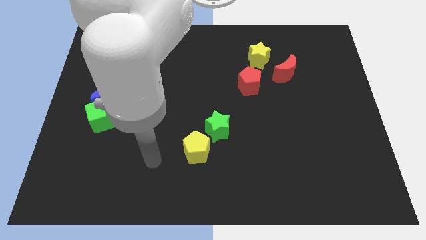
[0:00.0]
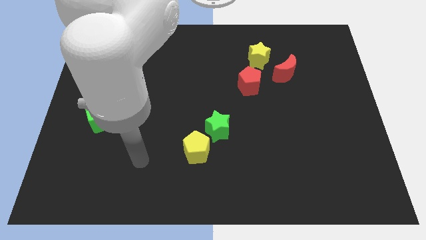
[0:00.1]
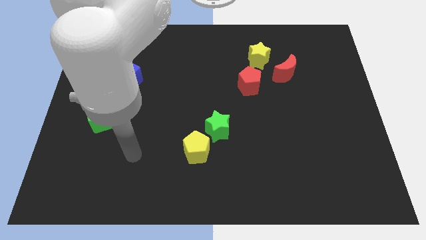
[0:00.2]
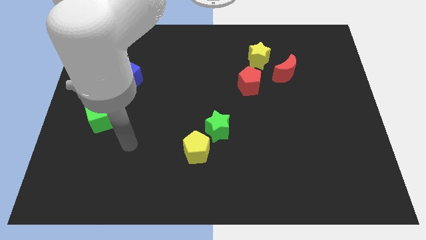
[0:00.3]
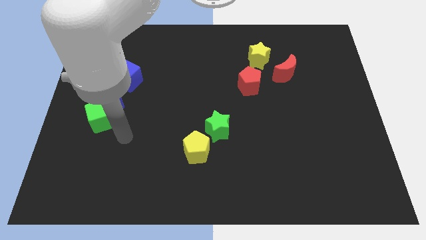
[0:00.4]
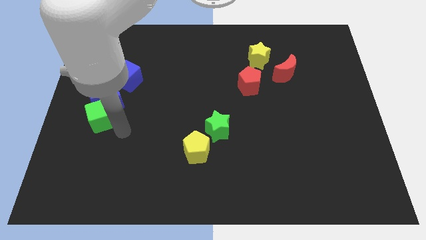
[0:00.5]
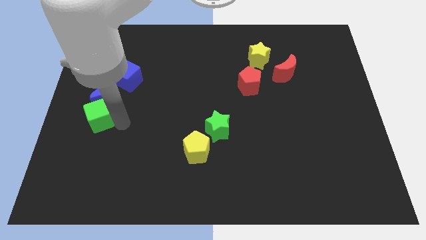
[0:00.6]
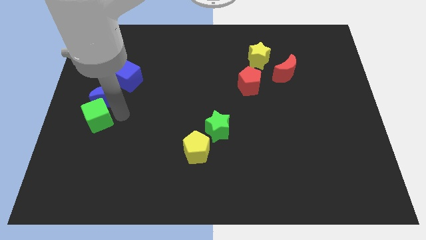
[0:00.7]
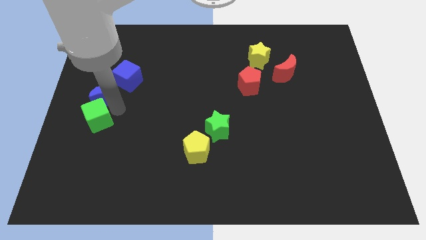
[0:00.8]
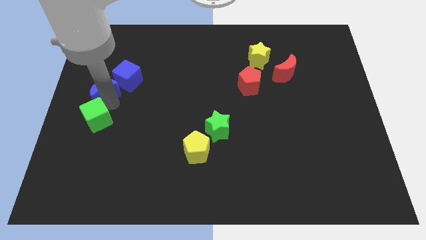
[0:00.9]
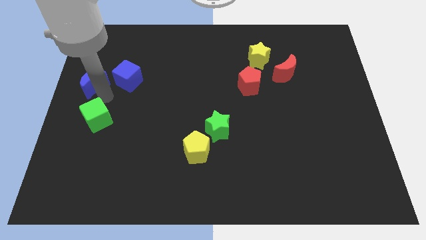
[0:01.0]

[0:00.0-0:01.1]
pull the green cube apart from the blue moon

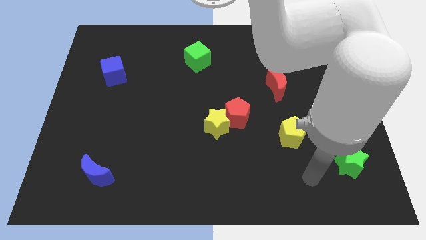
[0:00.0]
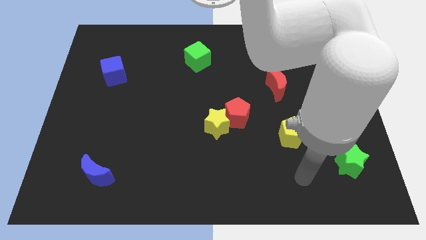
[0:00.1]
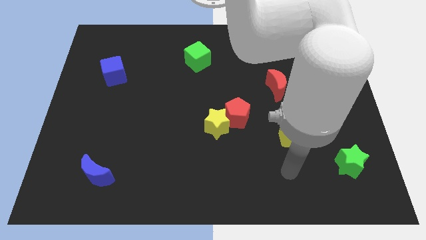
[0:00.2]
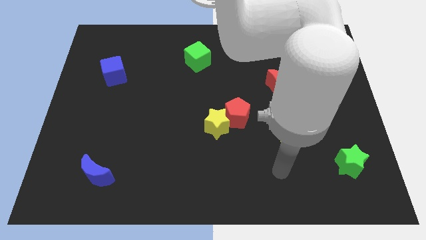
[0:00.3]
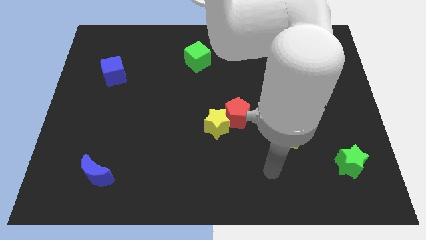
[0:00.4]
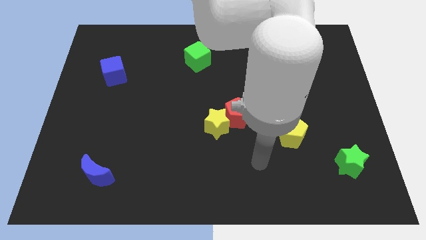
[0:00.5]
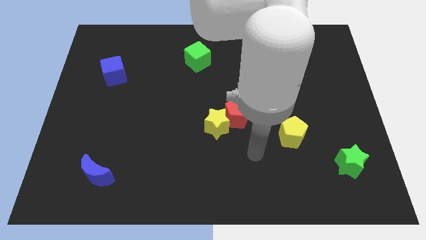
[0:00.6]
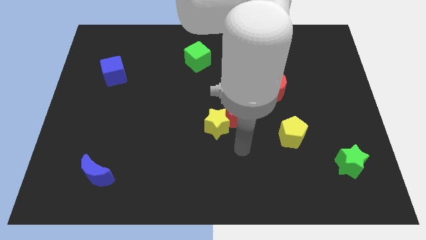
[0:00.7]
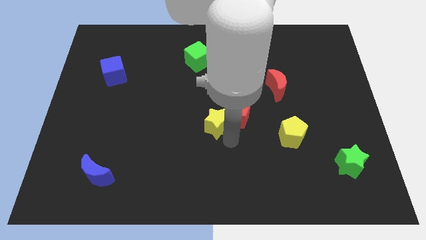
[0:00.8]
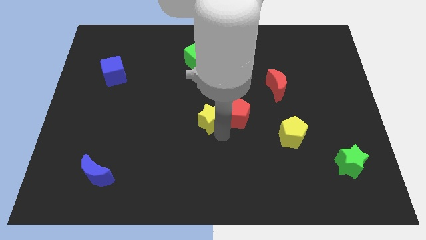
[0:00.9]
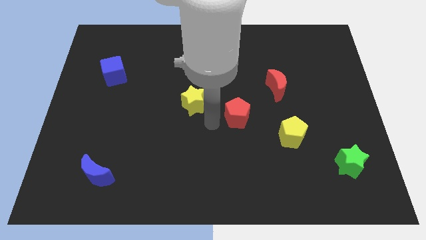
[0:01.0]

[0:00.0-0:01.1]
separate the red pentagon from the yellow star

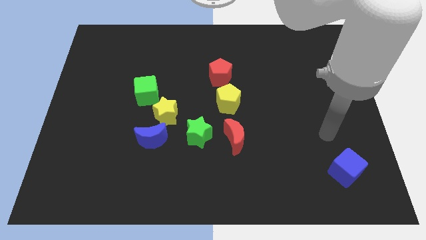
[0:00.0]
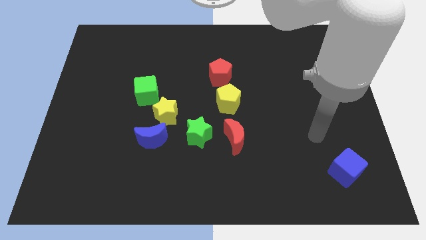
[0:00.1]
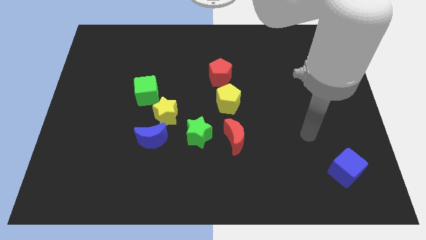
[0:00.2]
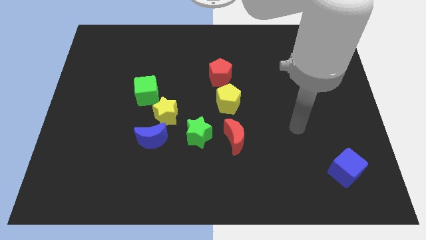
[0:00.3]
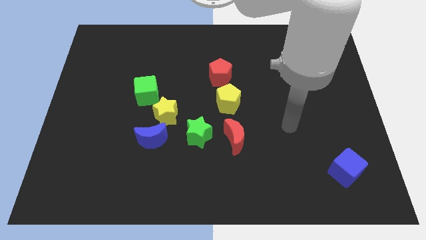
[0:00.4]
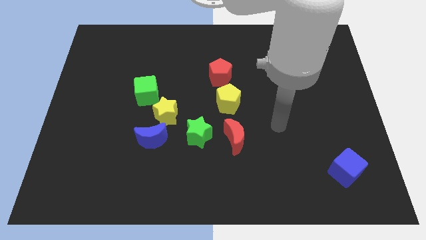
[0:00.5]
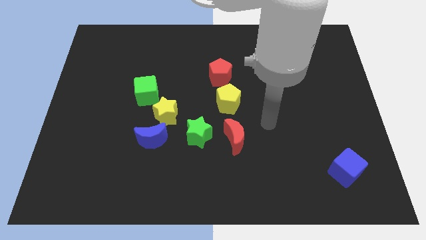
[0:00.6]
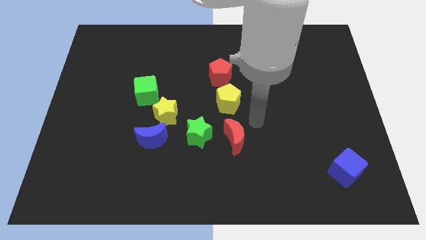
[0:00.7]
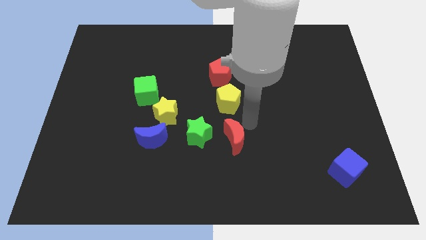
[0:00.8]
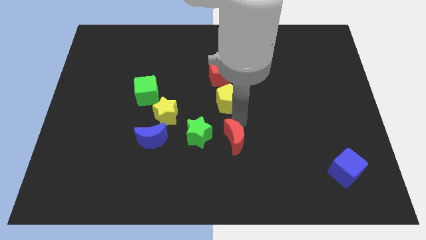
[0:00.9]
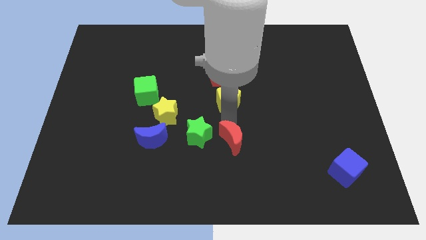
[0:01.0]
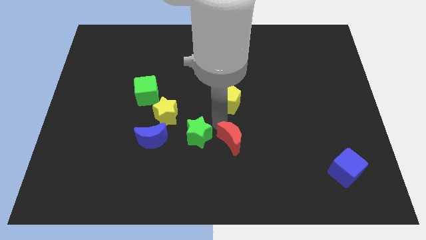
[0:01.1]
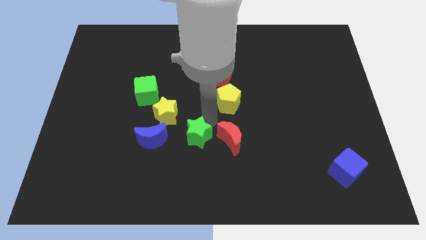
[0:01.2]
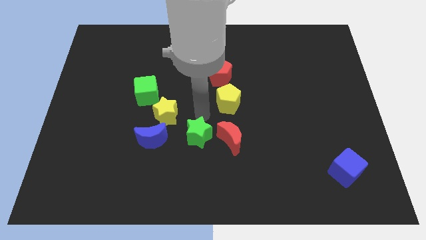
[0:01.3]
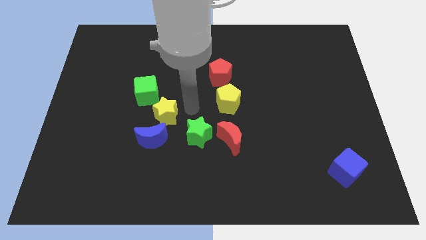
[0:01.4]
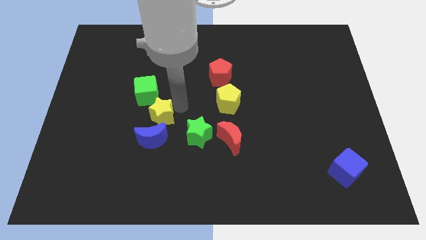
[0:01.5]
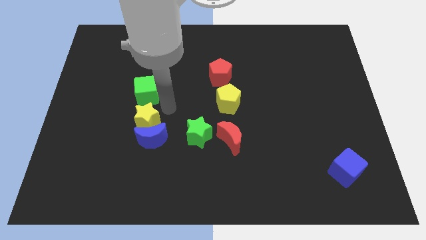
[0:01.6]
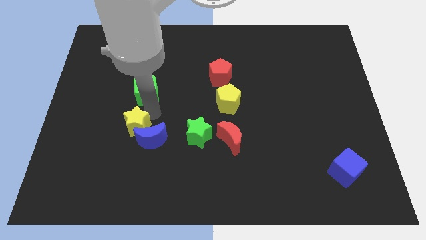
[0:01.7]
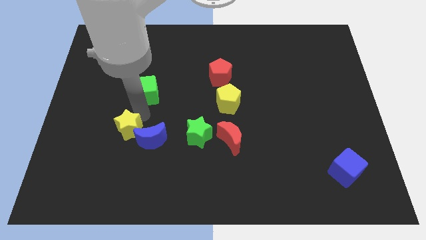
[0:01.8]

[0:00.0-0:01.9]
move the green cube away from the yellow star

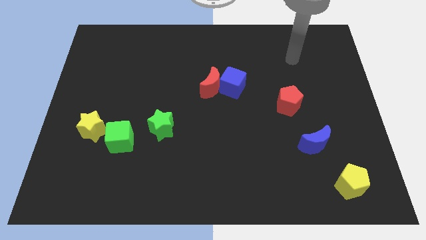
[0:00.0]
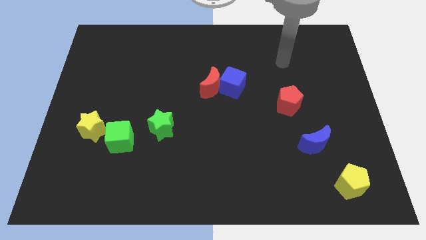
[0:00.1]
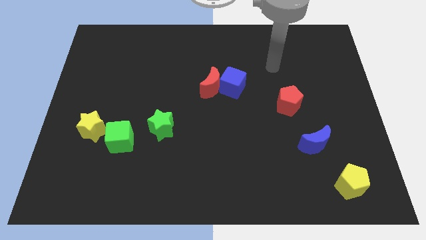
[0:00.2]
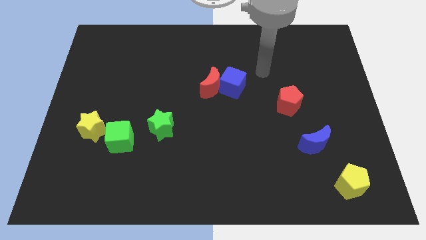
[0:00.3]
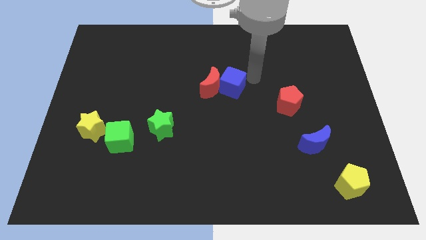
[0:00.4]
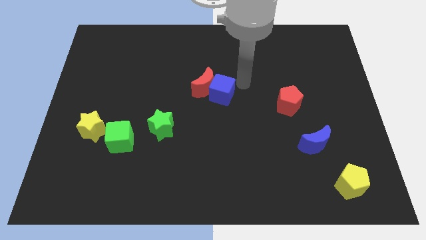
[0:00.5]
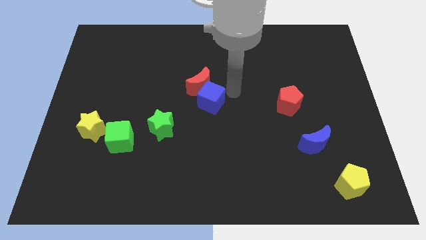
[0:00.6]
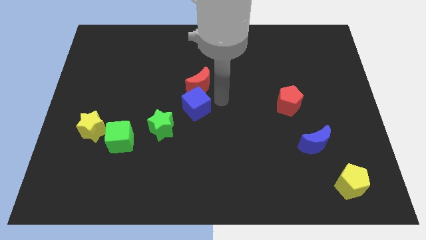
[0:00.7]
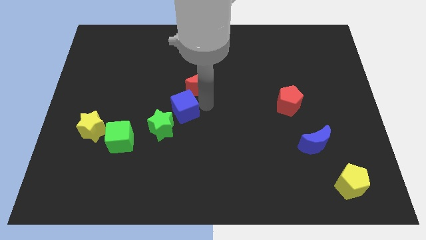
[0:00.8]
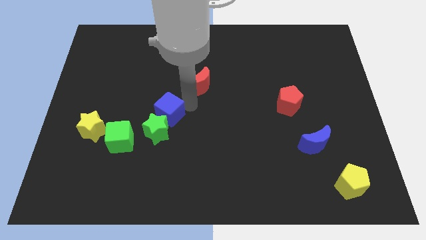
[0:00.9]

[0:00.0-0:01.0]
pull the red moon apart from the blue cube

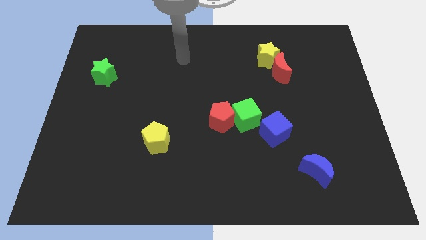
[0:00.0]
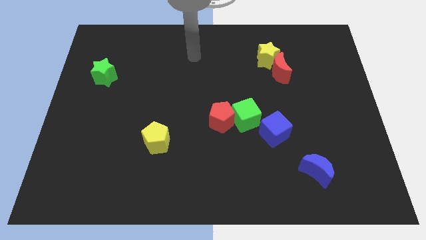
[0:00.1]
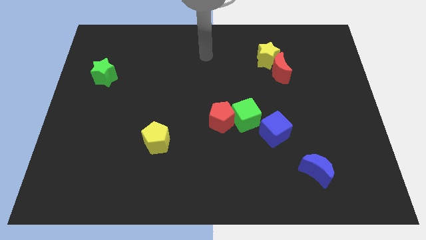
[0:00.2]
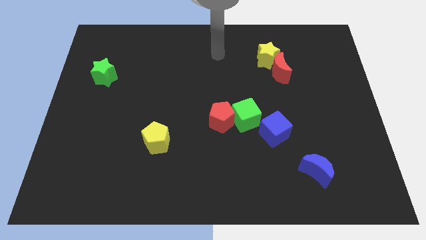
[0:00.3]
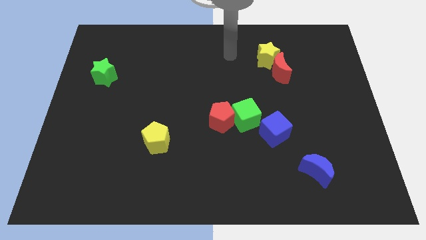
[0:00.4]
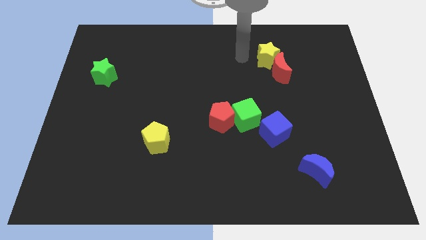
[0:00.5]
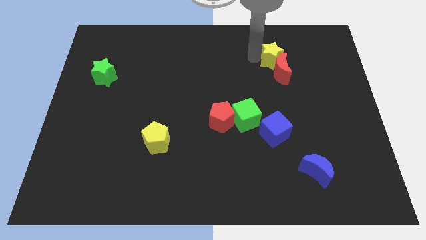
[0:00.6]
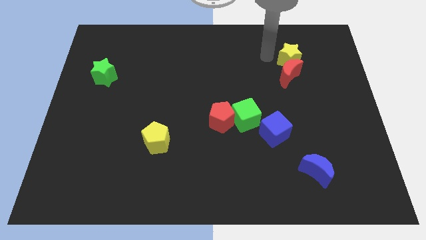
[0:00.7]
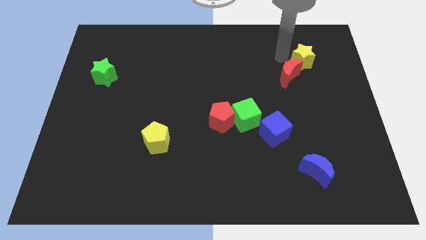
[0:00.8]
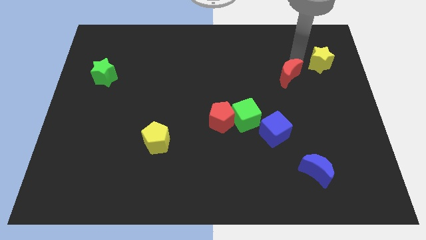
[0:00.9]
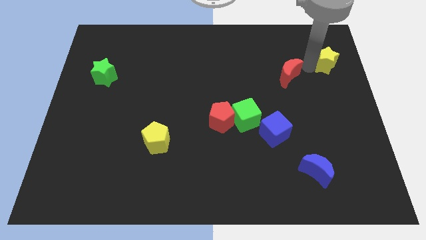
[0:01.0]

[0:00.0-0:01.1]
separate the red moon from the yellow star

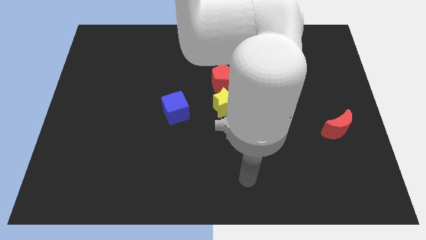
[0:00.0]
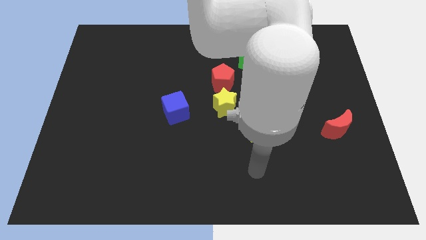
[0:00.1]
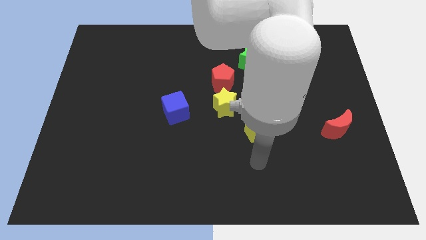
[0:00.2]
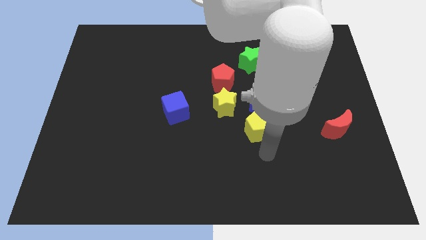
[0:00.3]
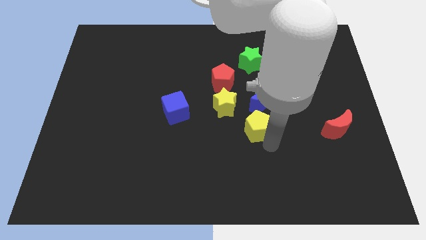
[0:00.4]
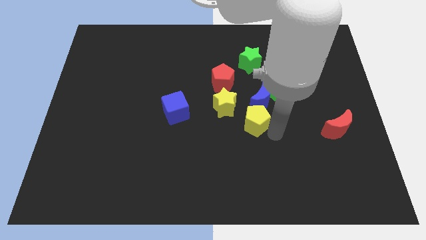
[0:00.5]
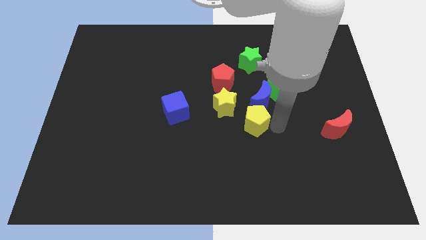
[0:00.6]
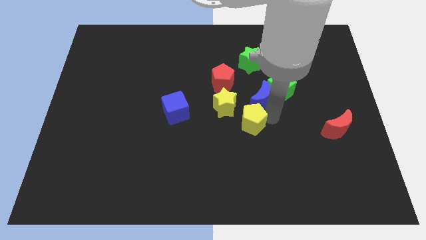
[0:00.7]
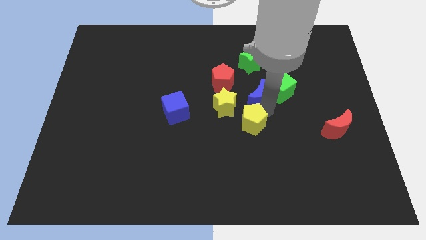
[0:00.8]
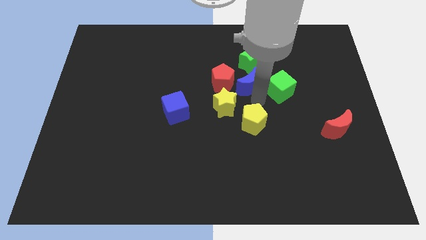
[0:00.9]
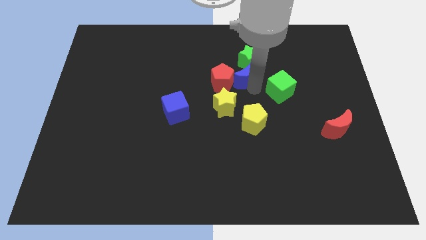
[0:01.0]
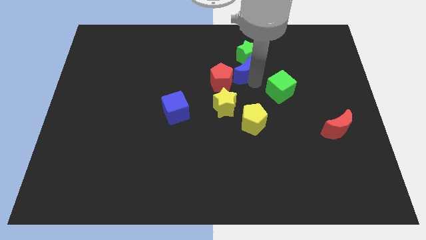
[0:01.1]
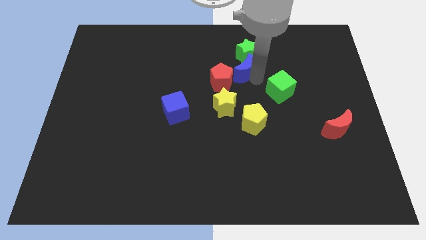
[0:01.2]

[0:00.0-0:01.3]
move the green cube away from the blue moon

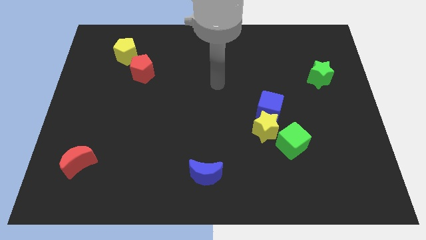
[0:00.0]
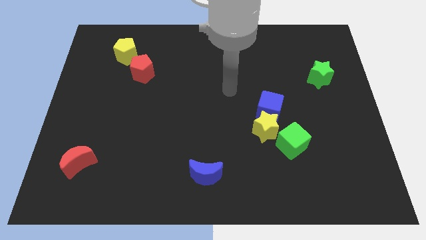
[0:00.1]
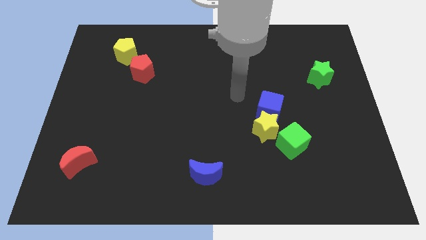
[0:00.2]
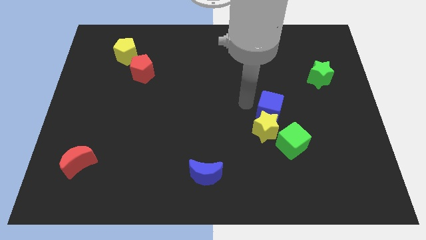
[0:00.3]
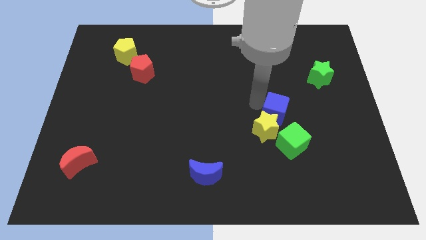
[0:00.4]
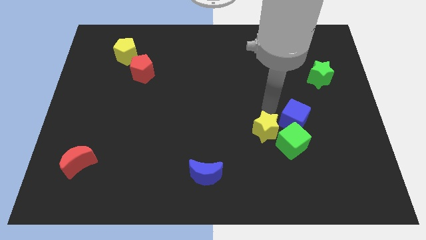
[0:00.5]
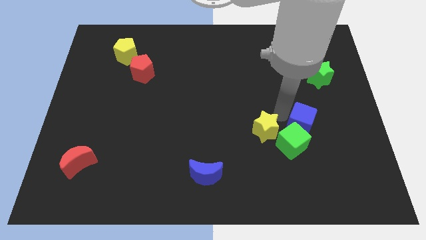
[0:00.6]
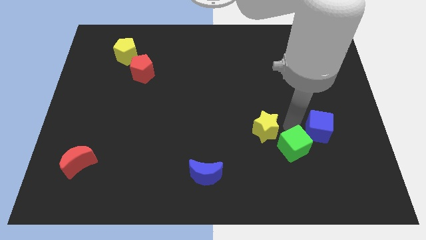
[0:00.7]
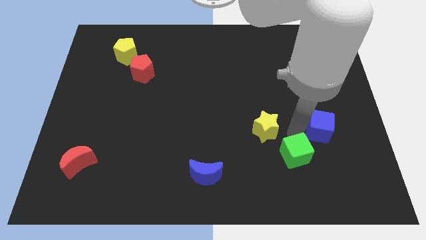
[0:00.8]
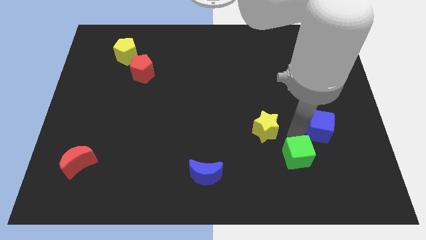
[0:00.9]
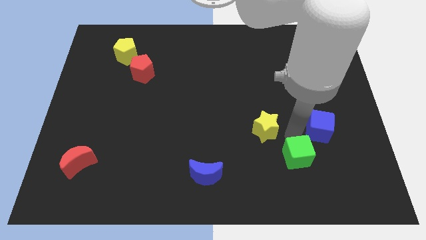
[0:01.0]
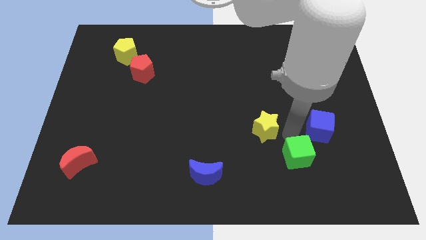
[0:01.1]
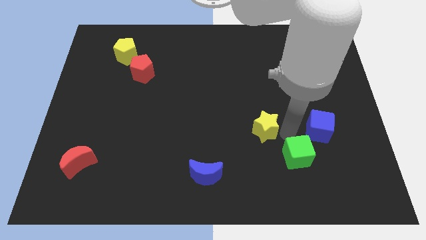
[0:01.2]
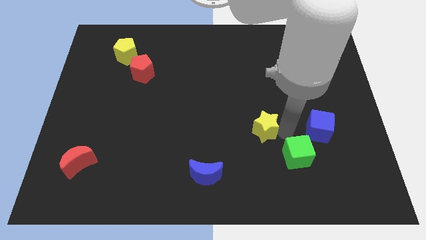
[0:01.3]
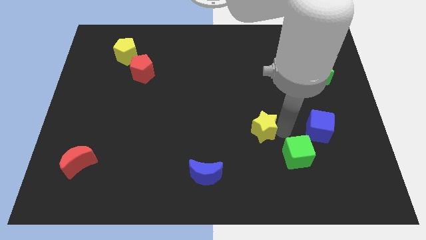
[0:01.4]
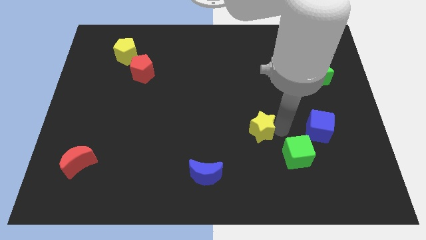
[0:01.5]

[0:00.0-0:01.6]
separate the yellow star from the blue cube and green cube
